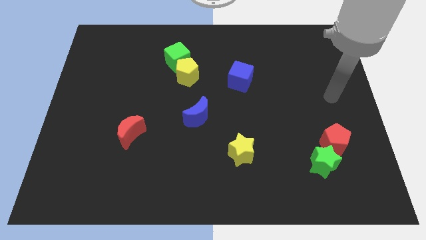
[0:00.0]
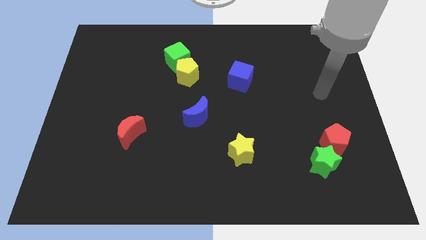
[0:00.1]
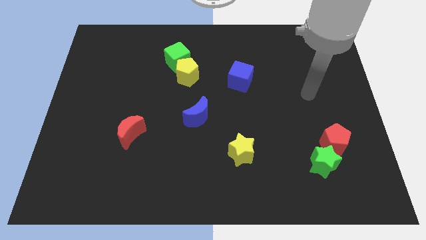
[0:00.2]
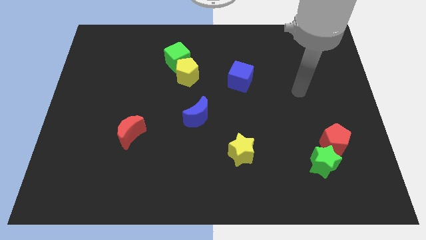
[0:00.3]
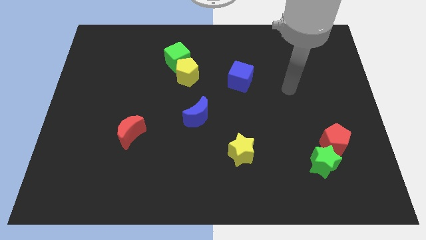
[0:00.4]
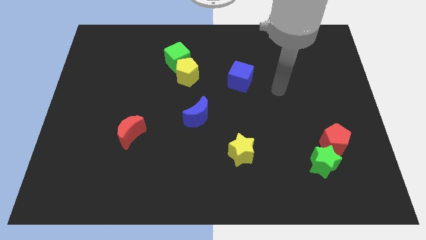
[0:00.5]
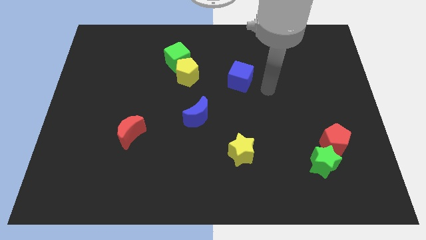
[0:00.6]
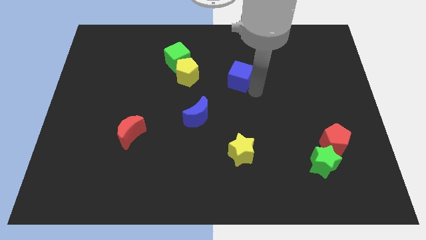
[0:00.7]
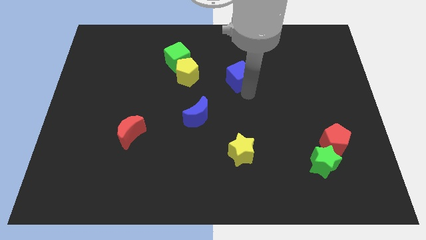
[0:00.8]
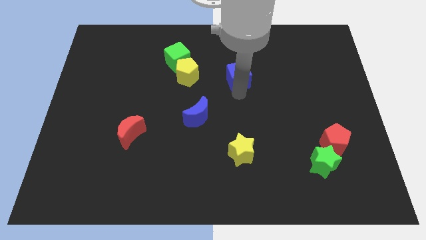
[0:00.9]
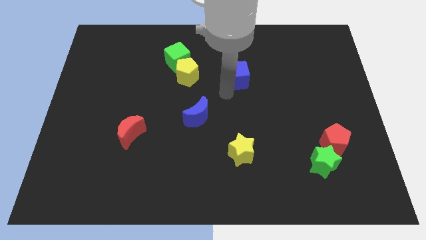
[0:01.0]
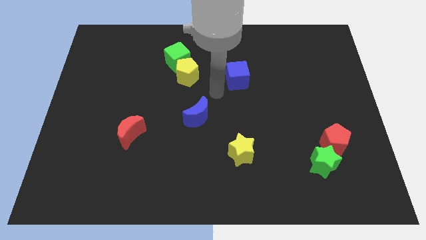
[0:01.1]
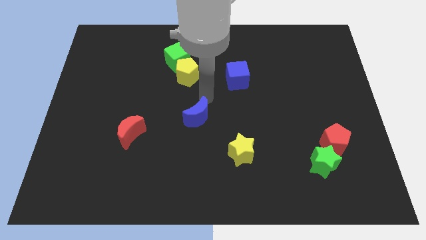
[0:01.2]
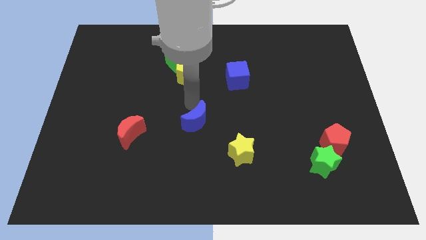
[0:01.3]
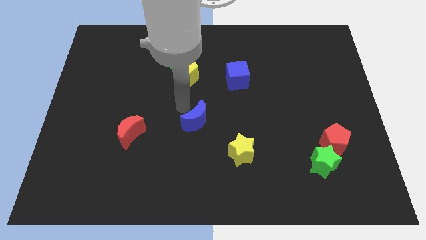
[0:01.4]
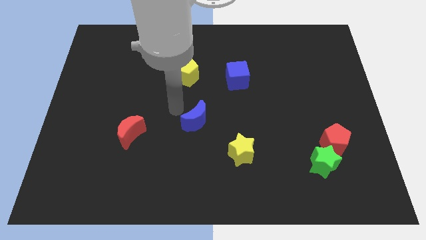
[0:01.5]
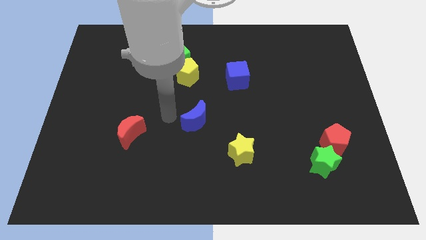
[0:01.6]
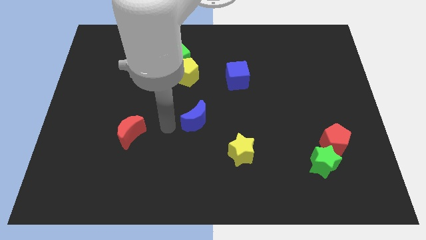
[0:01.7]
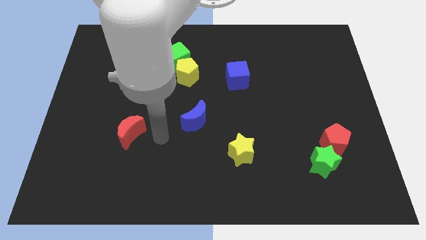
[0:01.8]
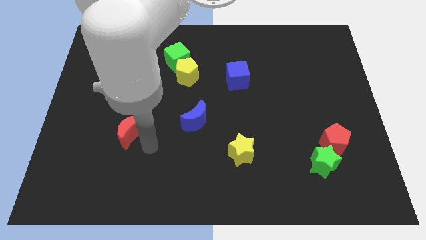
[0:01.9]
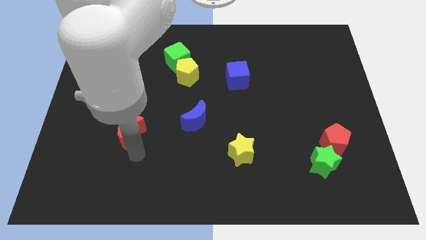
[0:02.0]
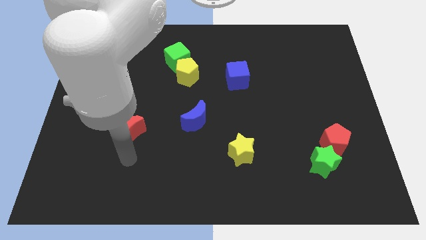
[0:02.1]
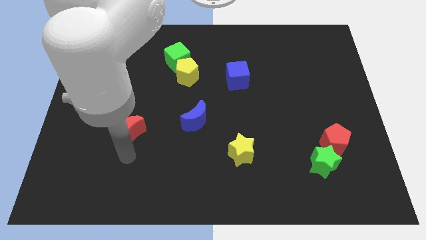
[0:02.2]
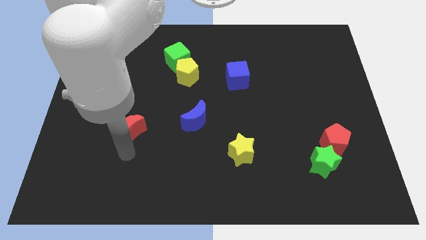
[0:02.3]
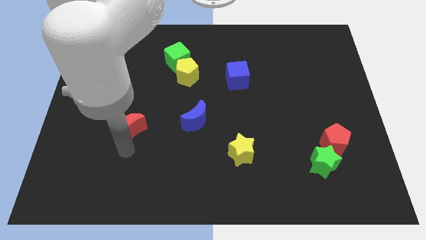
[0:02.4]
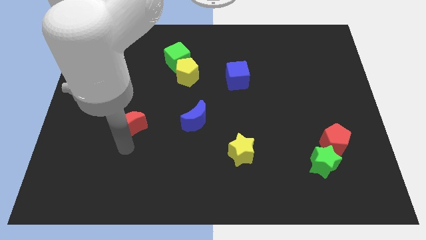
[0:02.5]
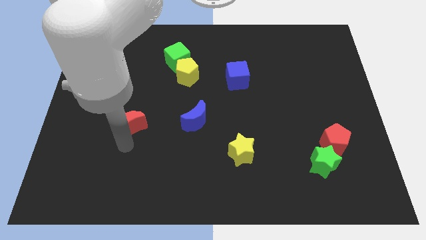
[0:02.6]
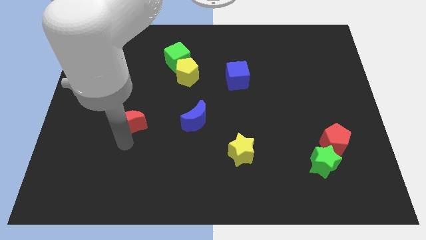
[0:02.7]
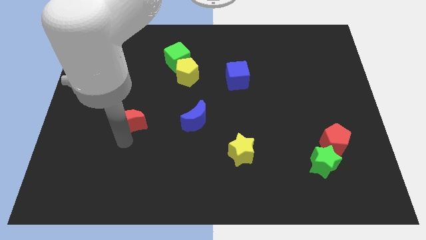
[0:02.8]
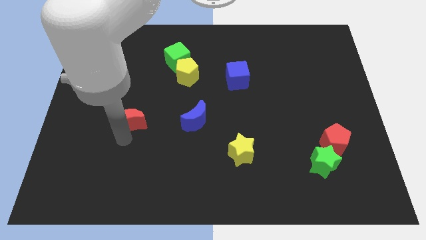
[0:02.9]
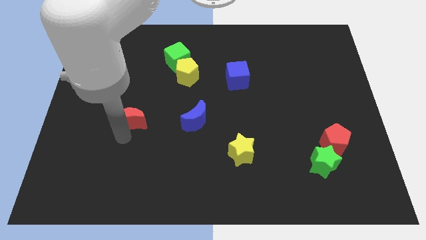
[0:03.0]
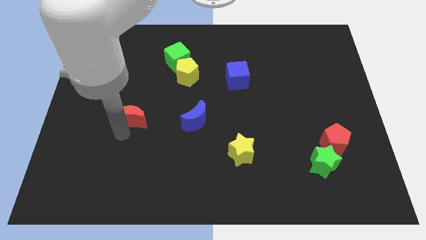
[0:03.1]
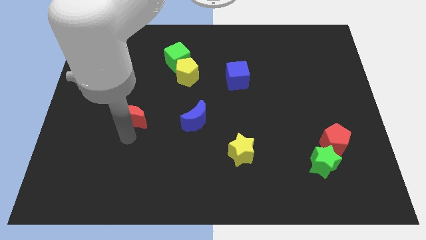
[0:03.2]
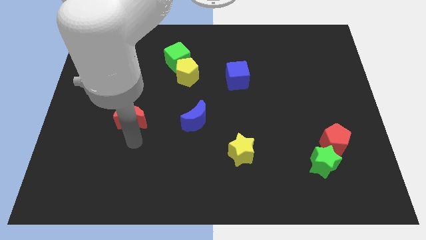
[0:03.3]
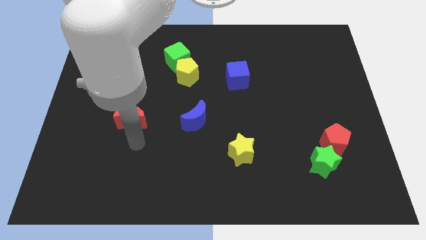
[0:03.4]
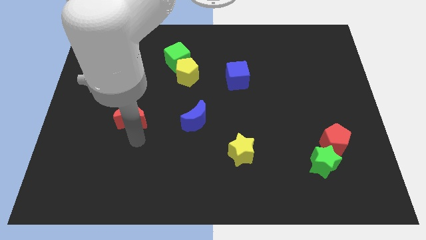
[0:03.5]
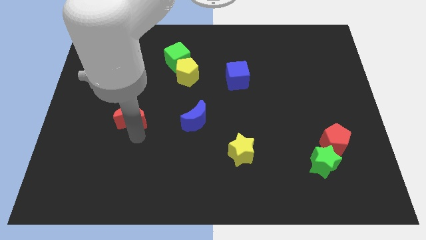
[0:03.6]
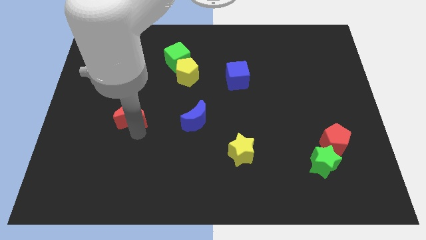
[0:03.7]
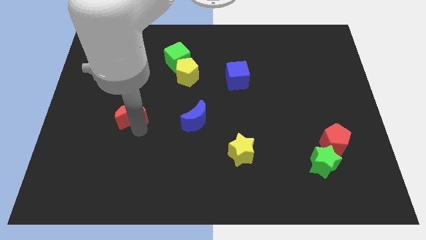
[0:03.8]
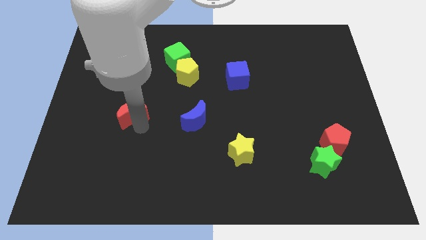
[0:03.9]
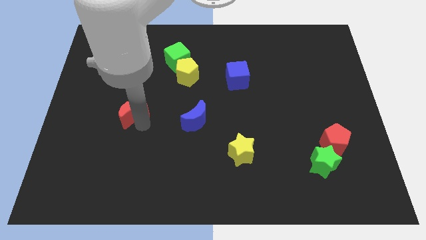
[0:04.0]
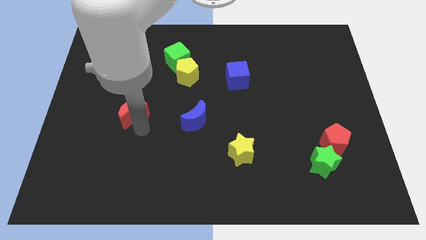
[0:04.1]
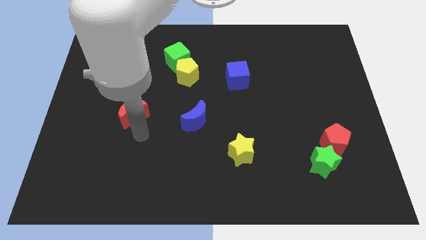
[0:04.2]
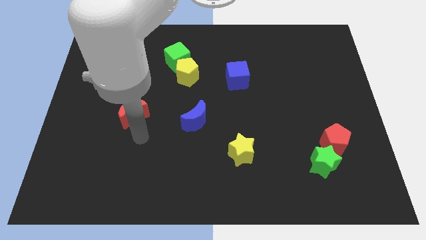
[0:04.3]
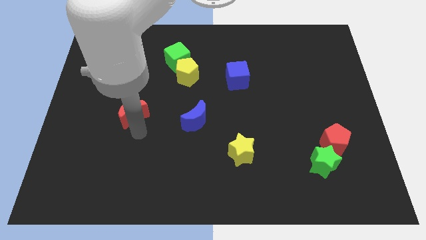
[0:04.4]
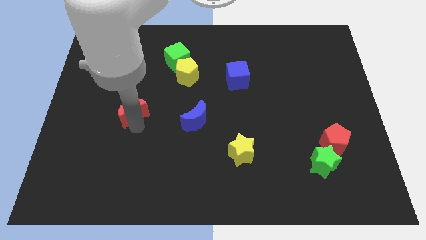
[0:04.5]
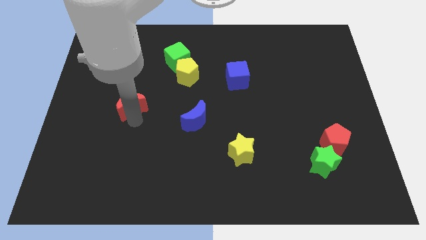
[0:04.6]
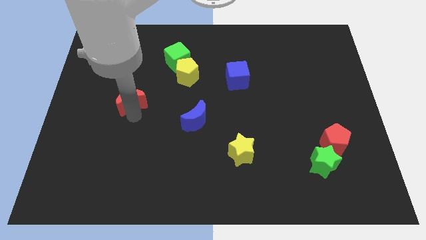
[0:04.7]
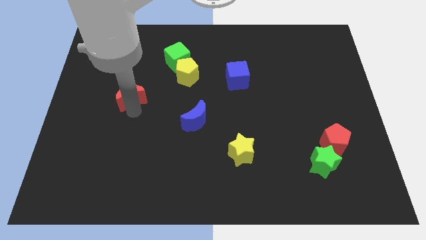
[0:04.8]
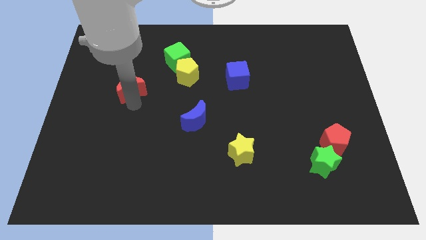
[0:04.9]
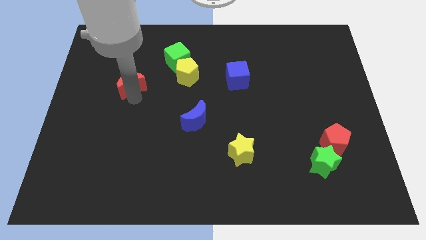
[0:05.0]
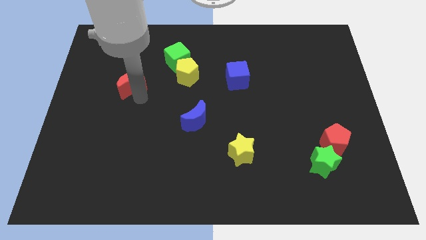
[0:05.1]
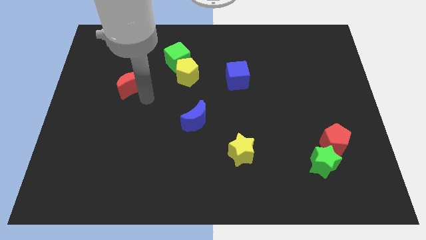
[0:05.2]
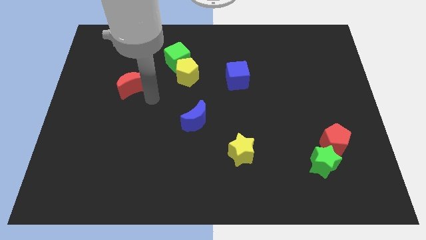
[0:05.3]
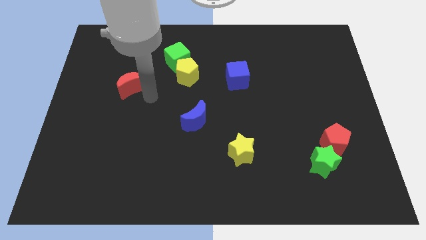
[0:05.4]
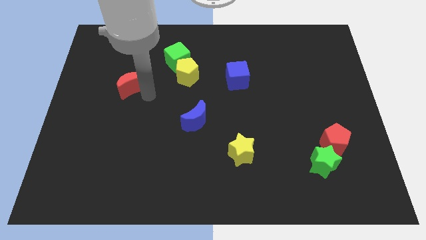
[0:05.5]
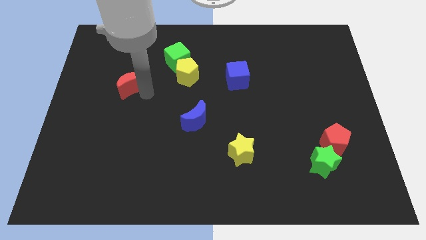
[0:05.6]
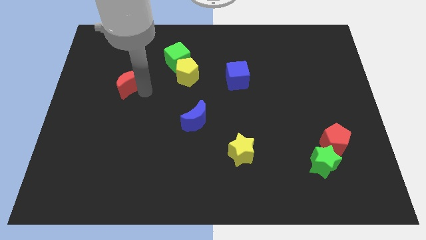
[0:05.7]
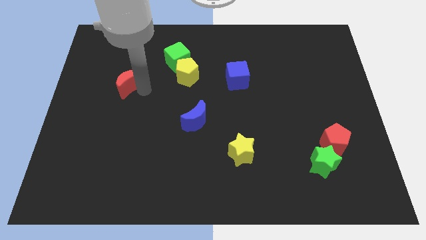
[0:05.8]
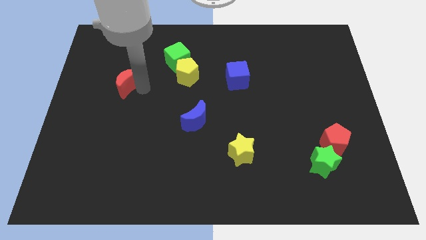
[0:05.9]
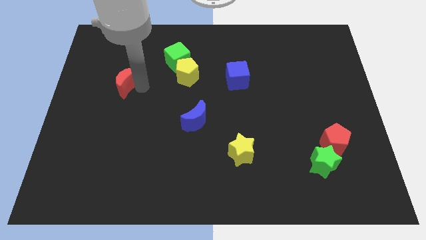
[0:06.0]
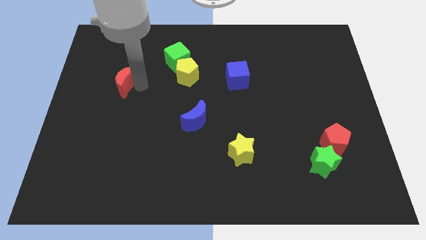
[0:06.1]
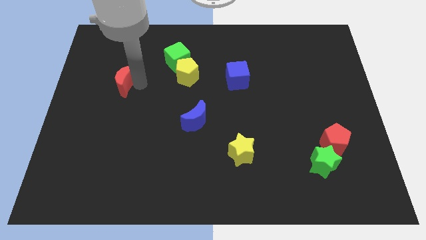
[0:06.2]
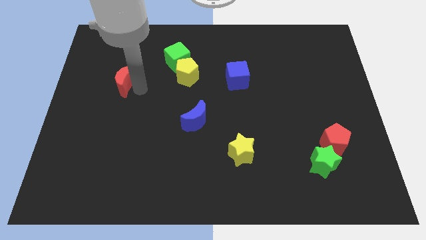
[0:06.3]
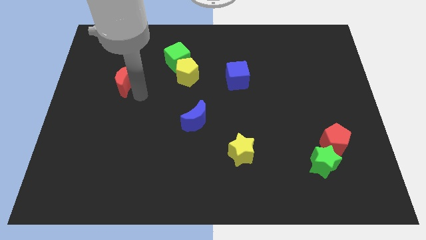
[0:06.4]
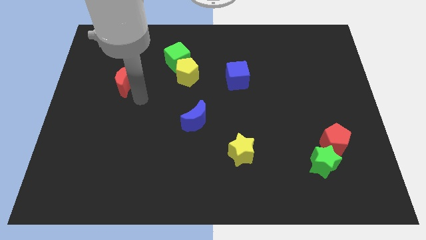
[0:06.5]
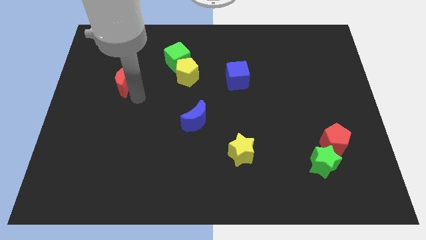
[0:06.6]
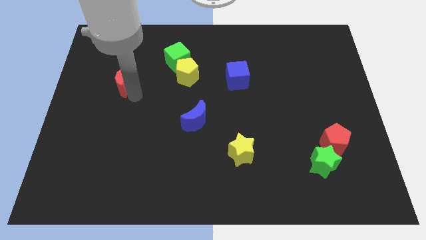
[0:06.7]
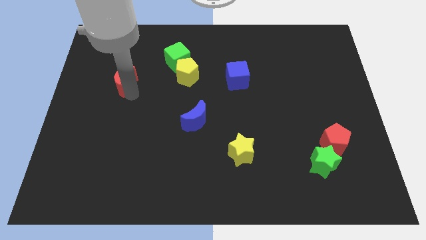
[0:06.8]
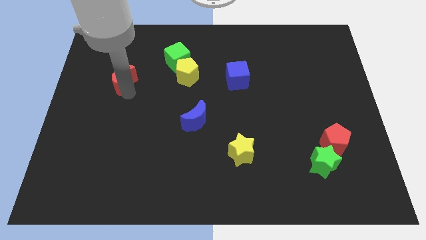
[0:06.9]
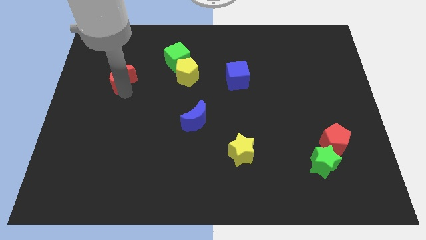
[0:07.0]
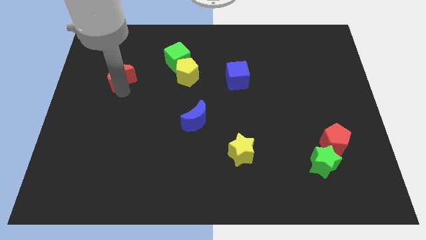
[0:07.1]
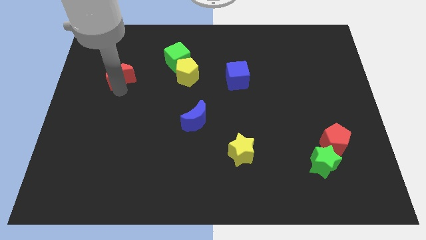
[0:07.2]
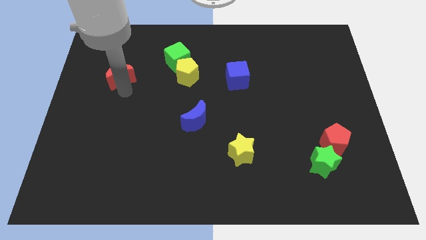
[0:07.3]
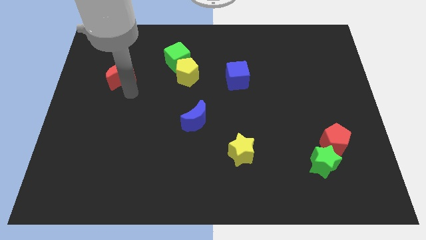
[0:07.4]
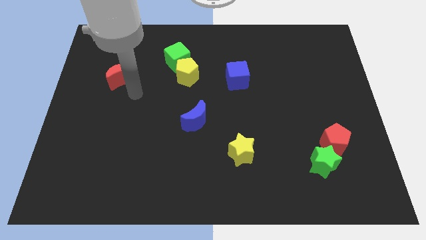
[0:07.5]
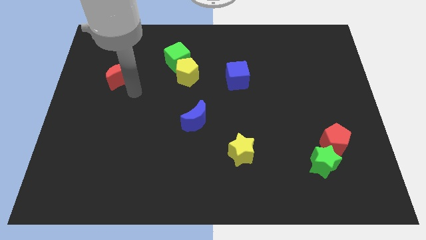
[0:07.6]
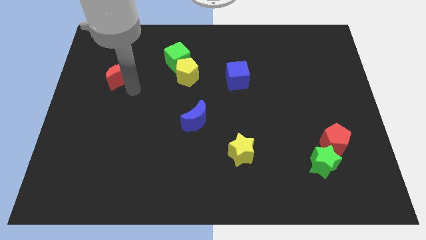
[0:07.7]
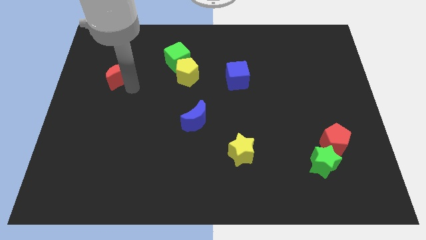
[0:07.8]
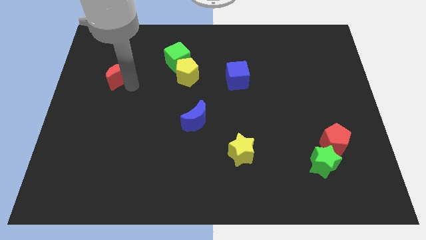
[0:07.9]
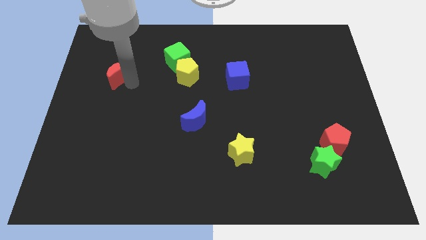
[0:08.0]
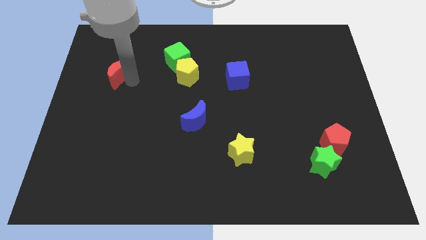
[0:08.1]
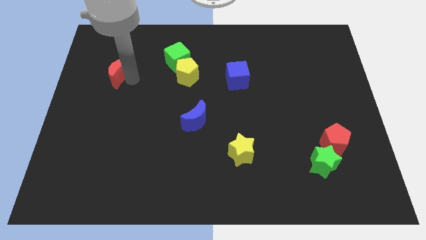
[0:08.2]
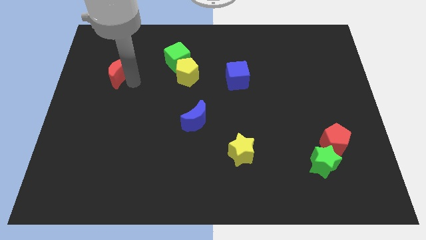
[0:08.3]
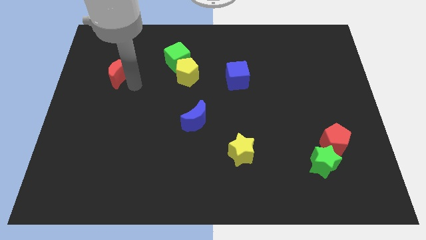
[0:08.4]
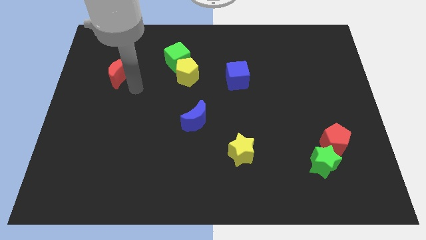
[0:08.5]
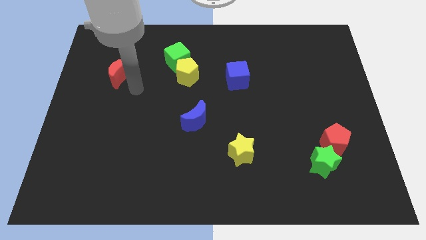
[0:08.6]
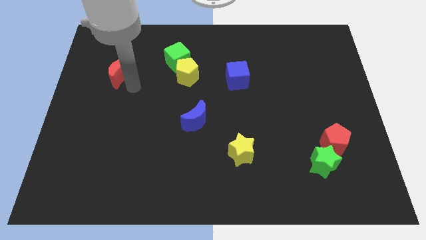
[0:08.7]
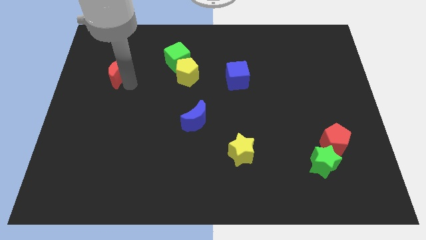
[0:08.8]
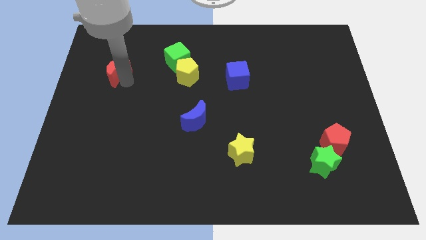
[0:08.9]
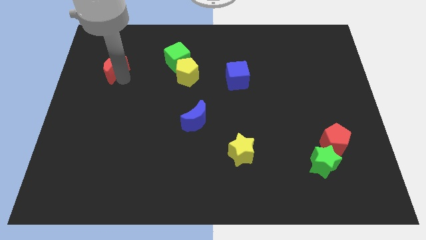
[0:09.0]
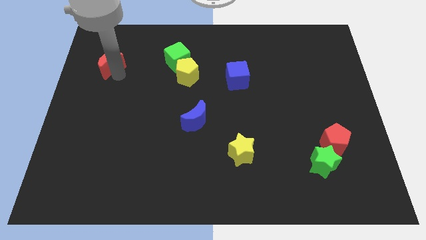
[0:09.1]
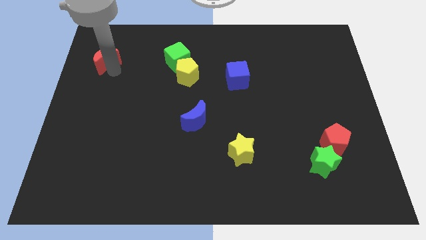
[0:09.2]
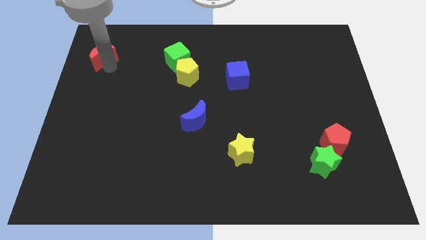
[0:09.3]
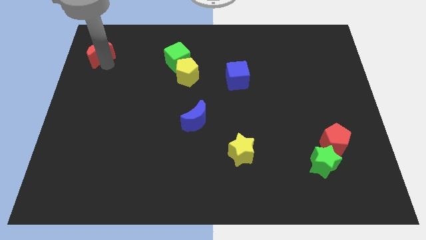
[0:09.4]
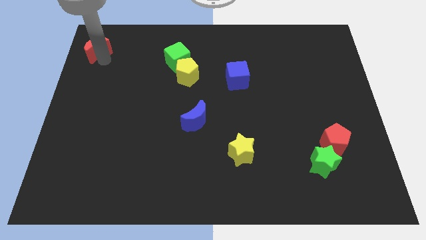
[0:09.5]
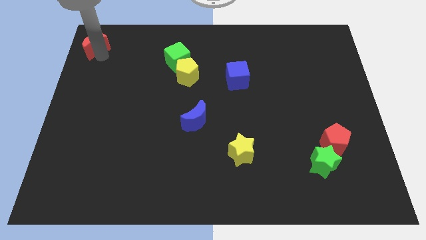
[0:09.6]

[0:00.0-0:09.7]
move the red moon to the top left of the board
